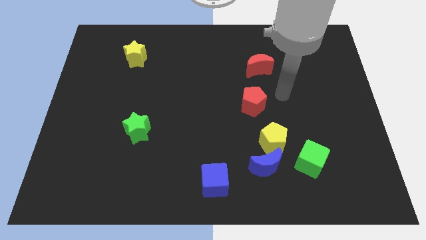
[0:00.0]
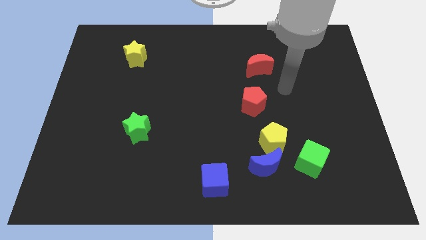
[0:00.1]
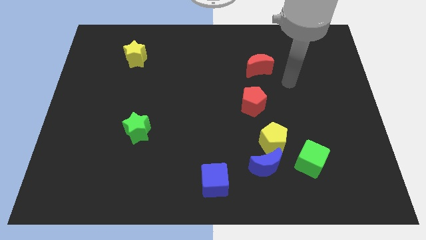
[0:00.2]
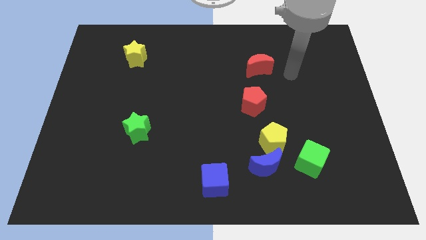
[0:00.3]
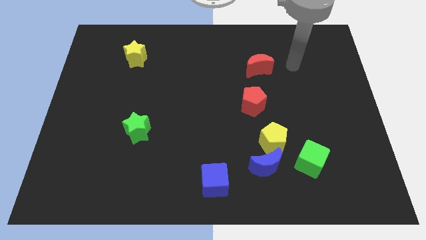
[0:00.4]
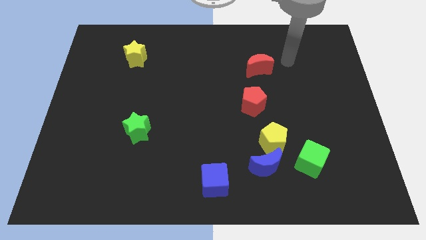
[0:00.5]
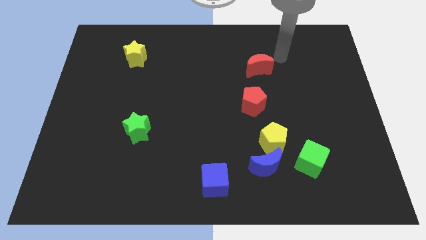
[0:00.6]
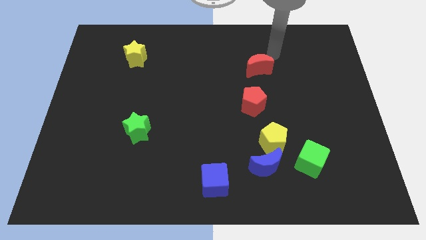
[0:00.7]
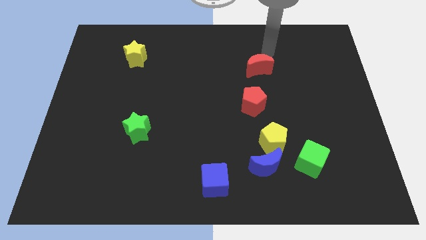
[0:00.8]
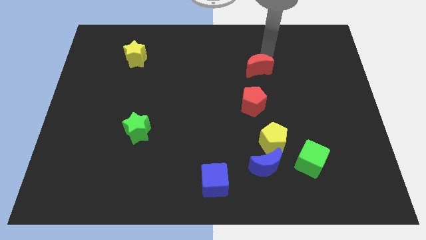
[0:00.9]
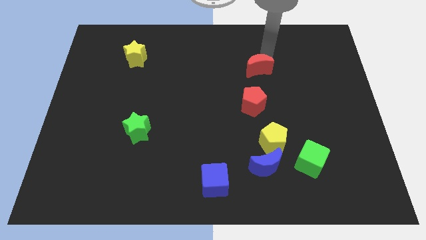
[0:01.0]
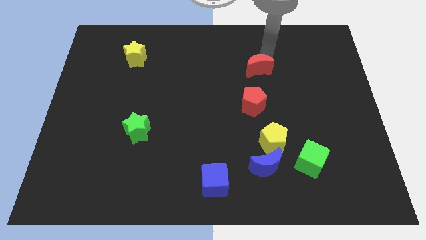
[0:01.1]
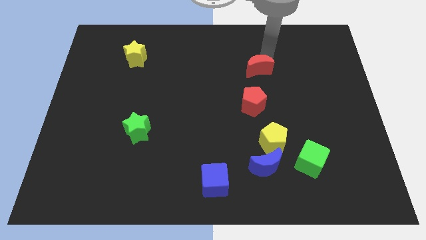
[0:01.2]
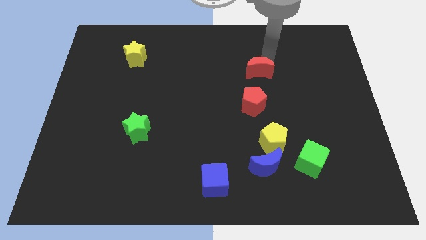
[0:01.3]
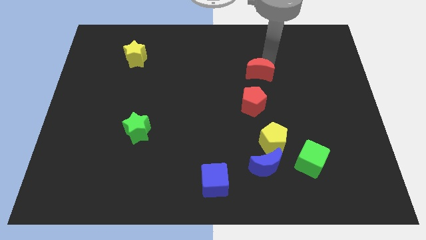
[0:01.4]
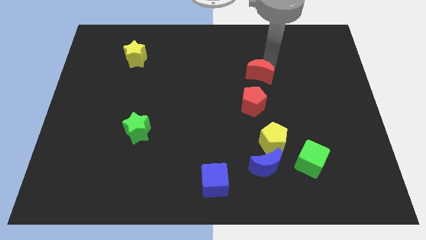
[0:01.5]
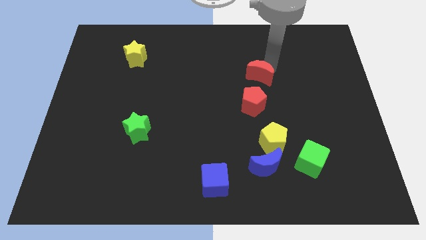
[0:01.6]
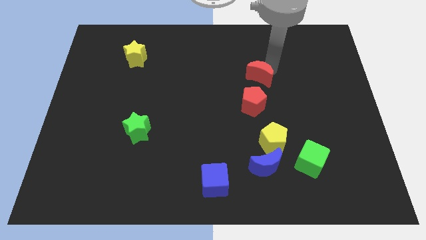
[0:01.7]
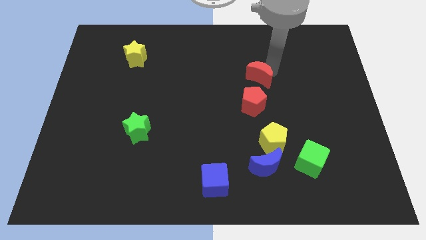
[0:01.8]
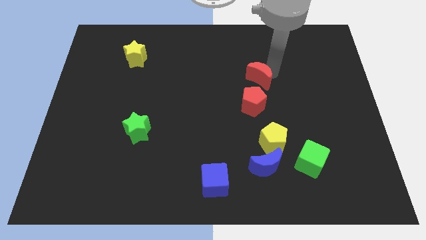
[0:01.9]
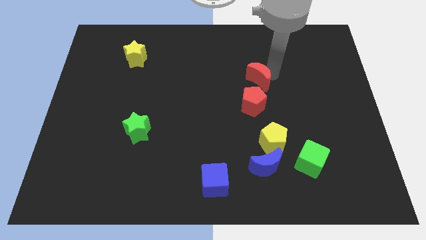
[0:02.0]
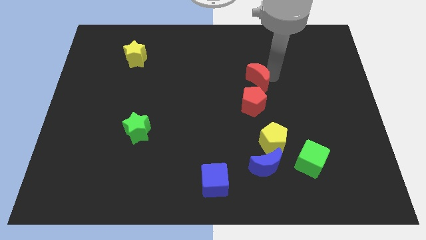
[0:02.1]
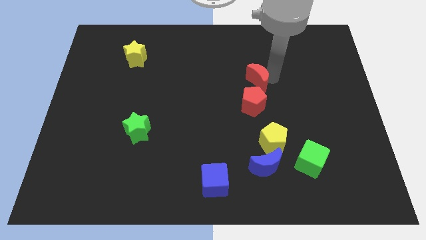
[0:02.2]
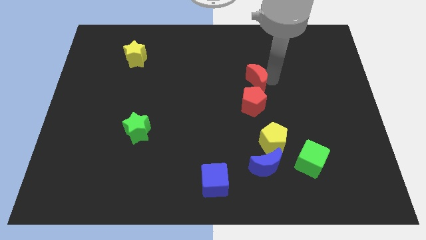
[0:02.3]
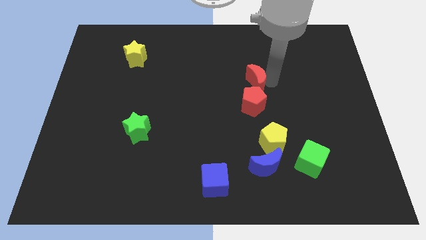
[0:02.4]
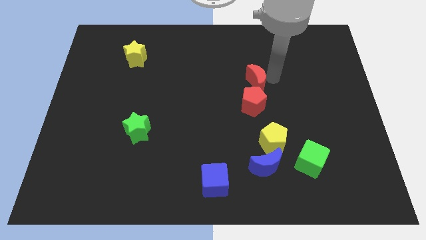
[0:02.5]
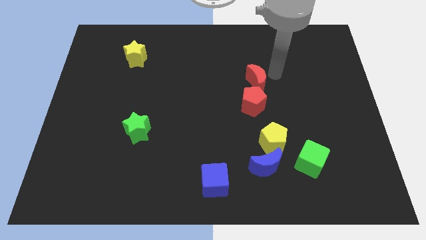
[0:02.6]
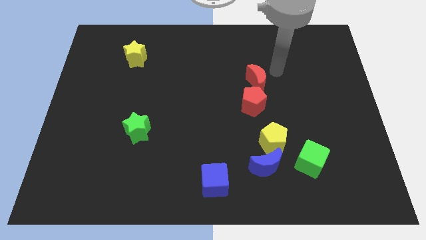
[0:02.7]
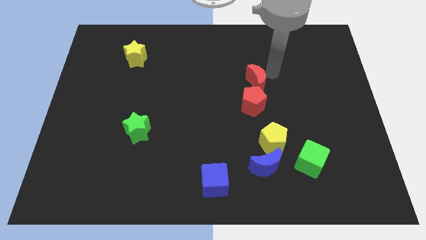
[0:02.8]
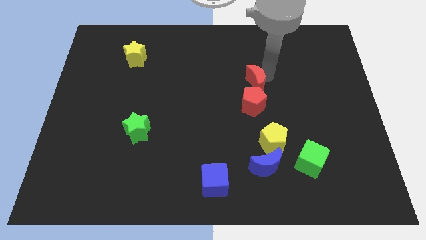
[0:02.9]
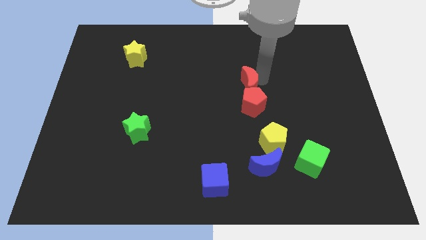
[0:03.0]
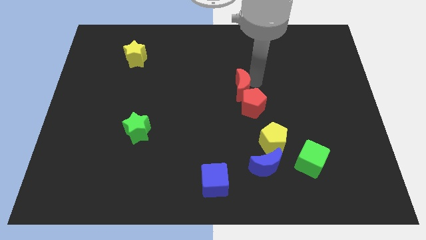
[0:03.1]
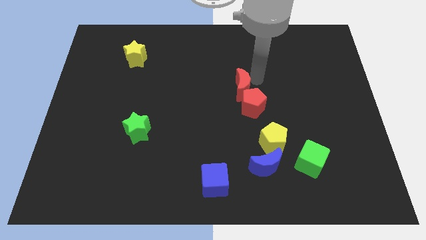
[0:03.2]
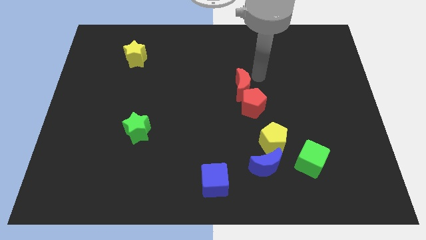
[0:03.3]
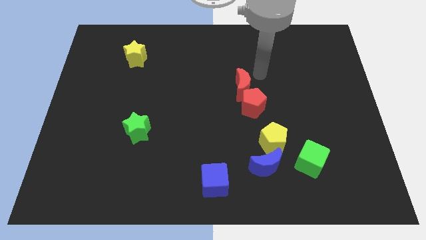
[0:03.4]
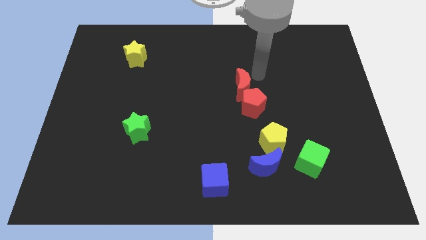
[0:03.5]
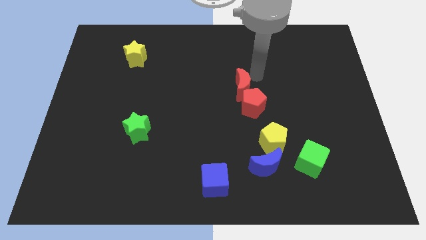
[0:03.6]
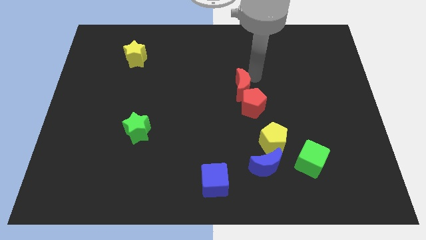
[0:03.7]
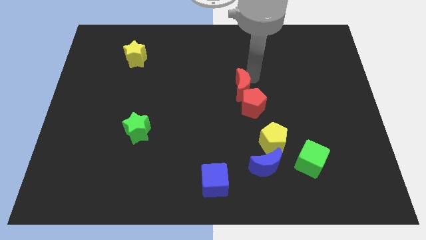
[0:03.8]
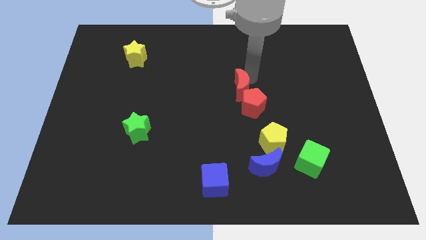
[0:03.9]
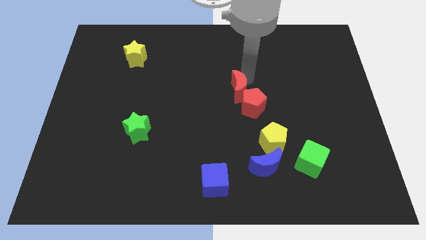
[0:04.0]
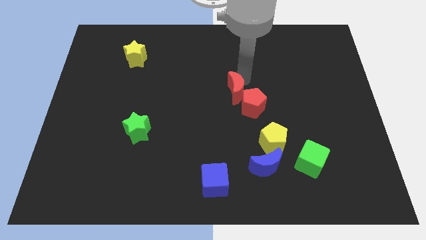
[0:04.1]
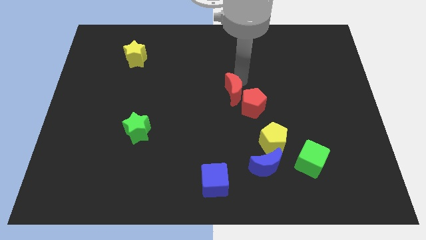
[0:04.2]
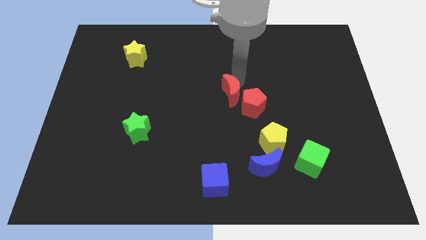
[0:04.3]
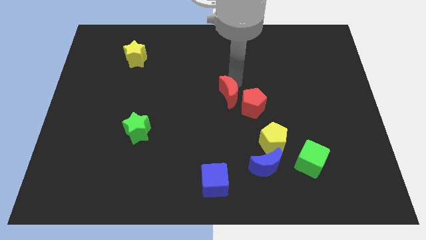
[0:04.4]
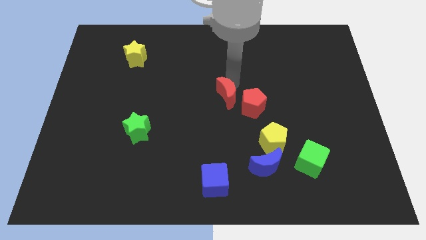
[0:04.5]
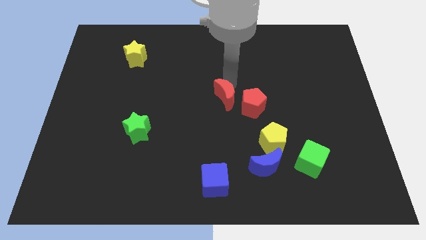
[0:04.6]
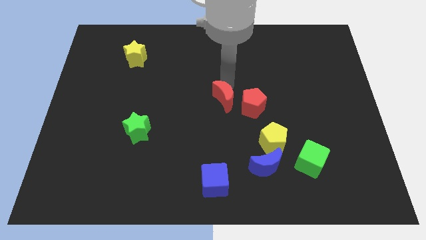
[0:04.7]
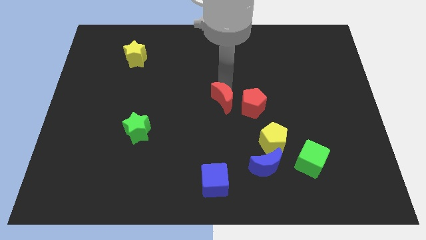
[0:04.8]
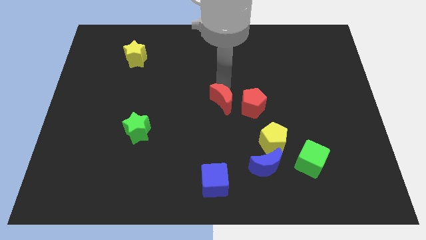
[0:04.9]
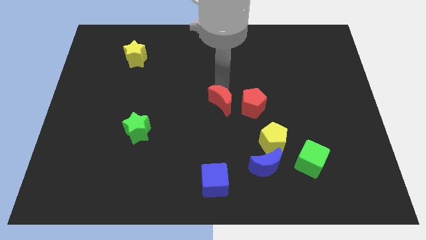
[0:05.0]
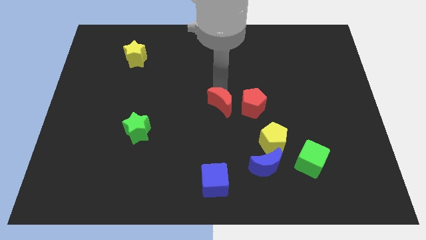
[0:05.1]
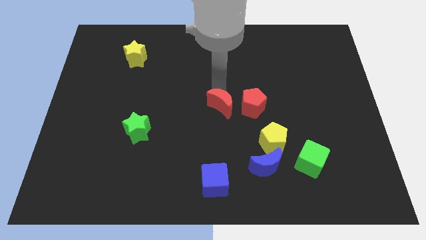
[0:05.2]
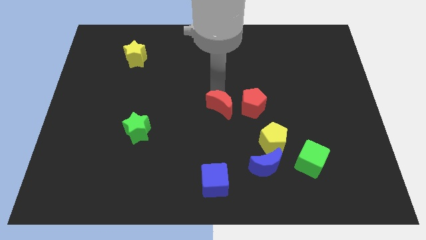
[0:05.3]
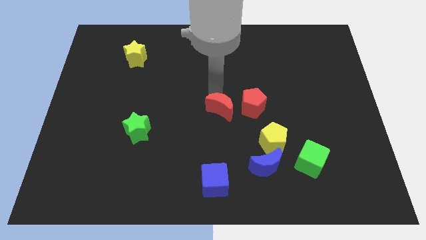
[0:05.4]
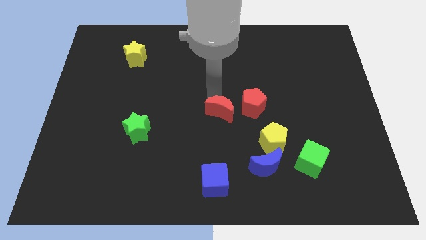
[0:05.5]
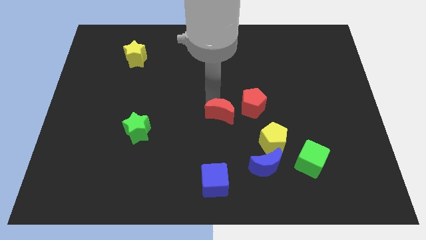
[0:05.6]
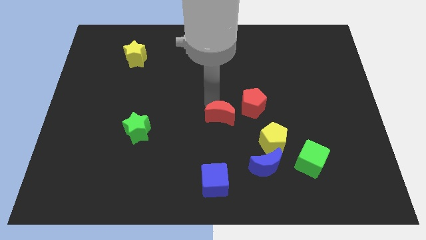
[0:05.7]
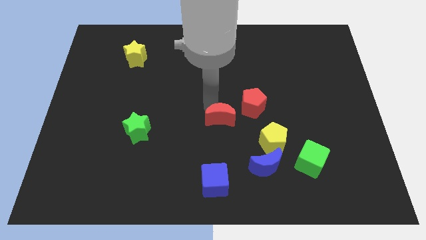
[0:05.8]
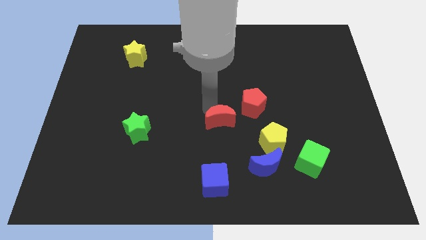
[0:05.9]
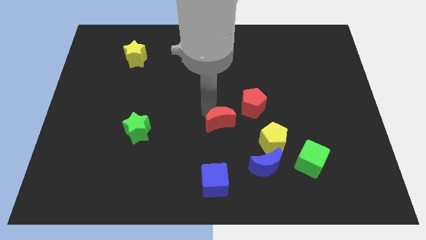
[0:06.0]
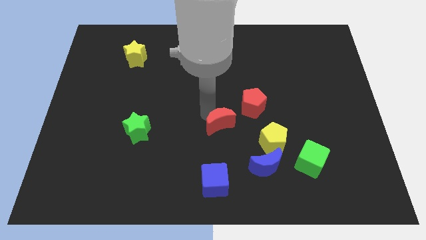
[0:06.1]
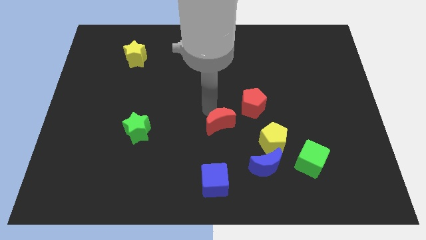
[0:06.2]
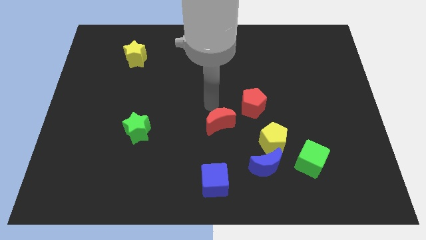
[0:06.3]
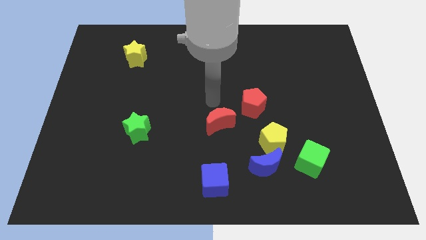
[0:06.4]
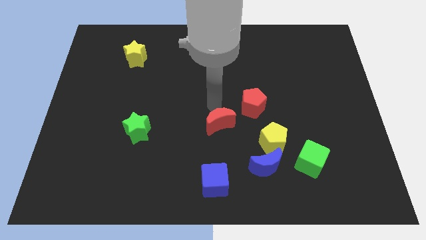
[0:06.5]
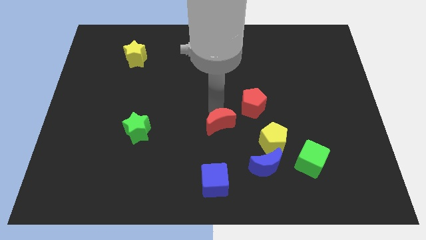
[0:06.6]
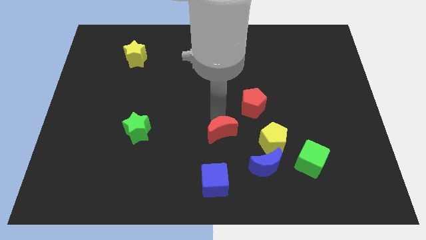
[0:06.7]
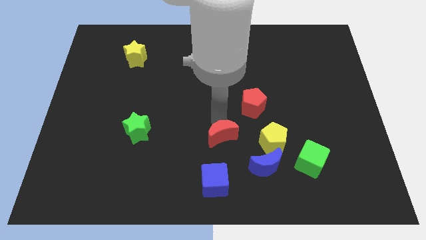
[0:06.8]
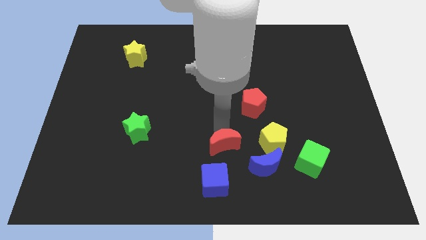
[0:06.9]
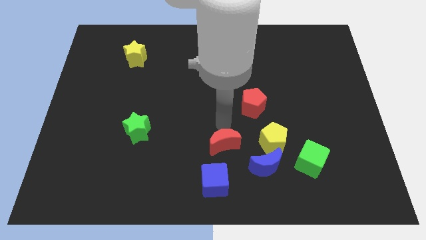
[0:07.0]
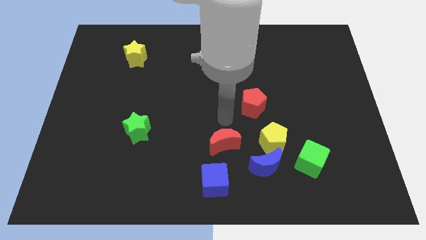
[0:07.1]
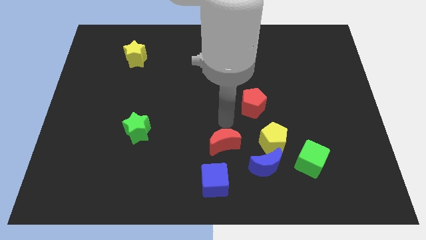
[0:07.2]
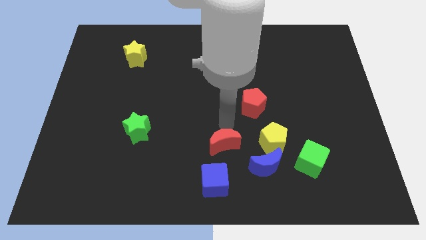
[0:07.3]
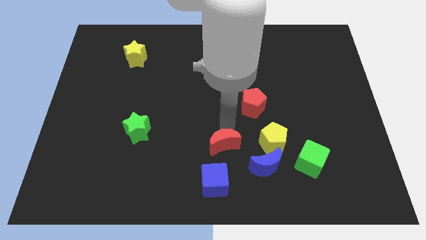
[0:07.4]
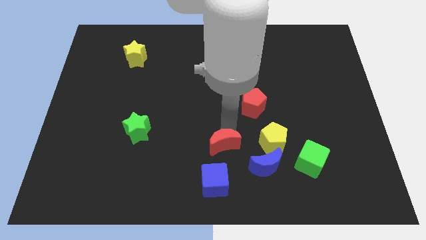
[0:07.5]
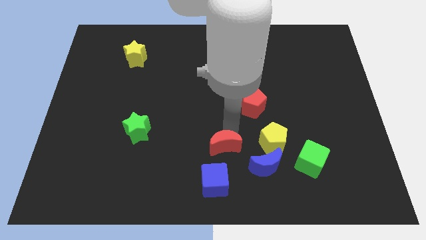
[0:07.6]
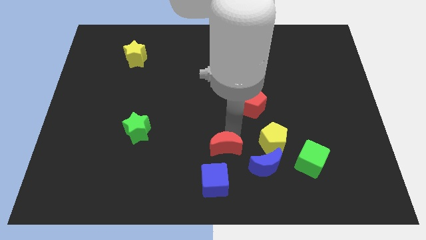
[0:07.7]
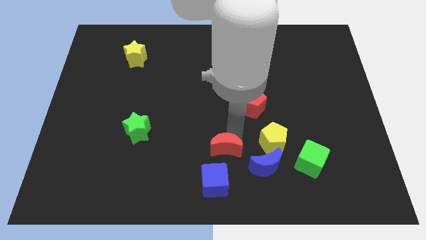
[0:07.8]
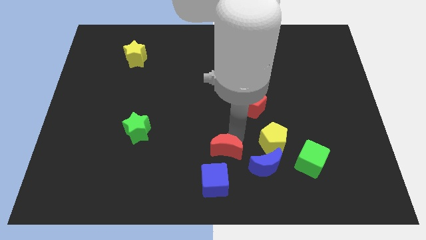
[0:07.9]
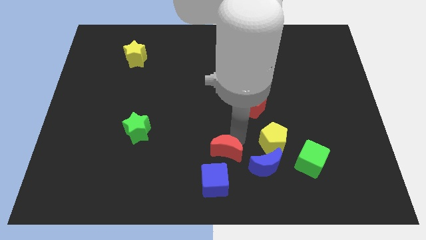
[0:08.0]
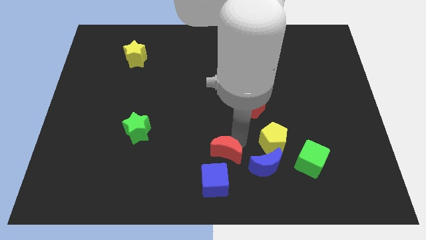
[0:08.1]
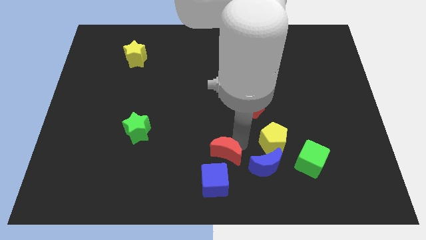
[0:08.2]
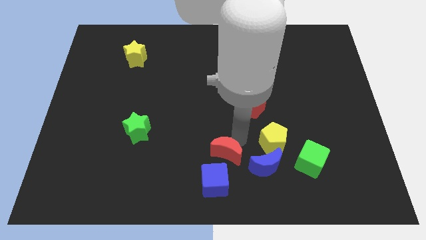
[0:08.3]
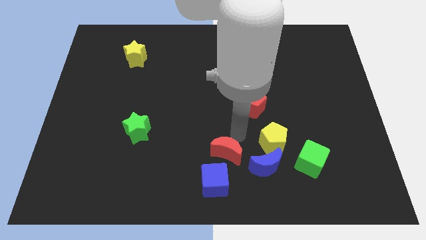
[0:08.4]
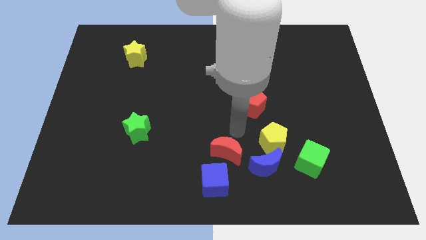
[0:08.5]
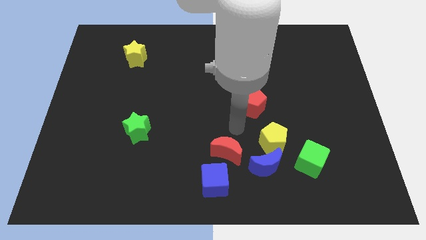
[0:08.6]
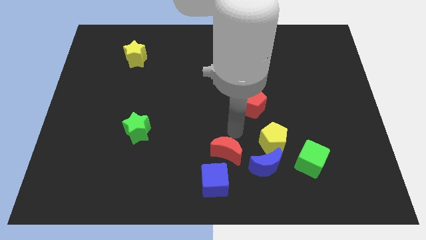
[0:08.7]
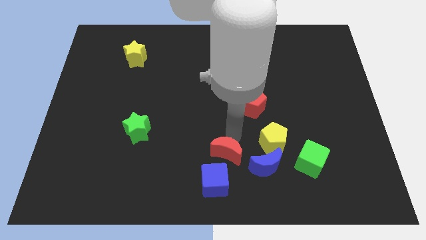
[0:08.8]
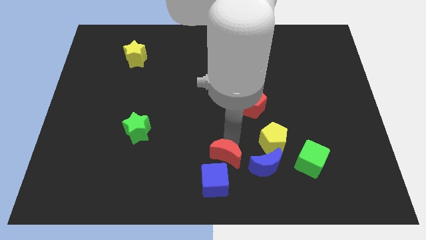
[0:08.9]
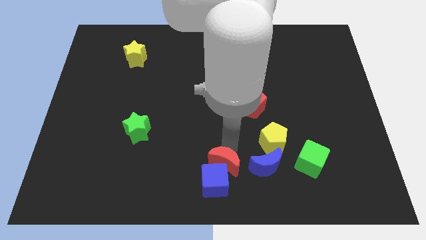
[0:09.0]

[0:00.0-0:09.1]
move the red moon towards the blue cube
